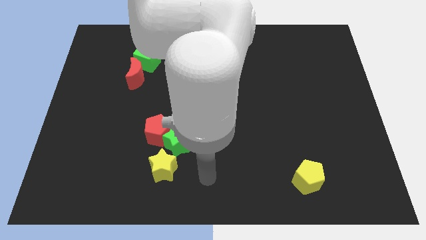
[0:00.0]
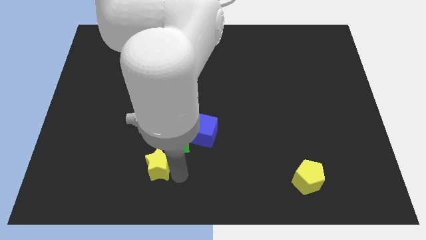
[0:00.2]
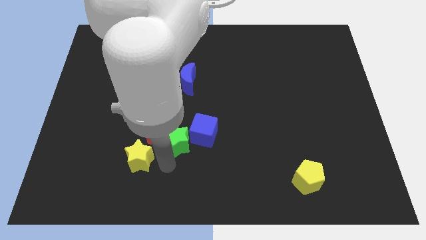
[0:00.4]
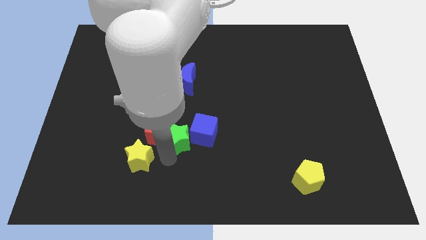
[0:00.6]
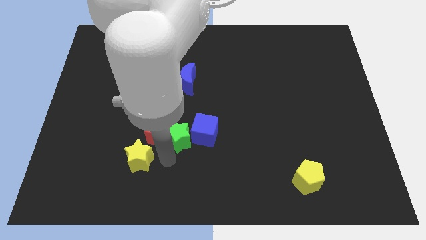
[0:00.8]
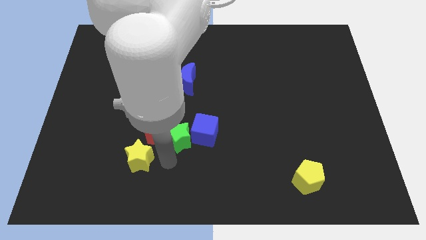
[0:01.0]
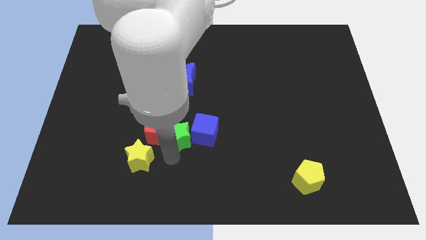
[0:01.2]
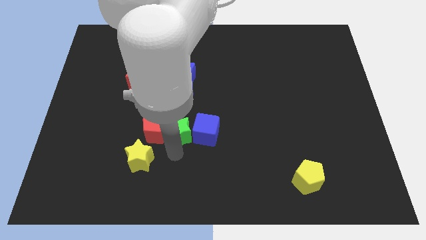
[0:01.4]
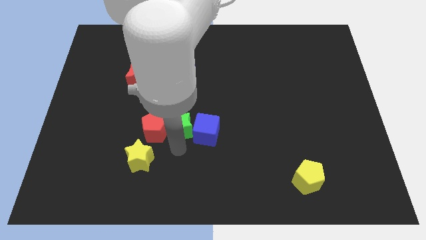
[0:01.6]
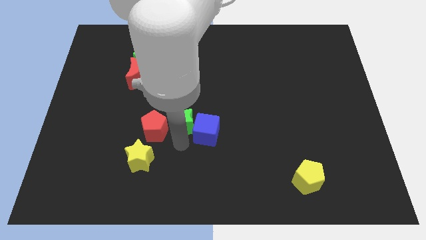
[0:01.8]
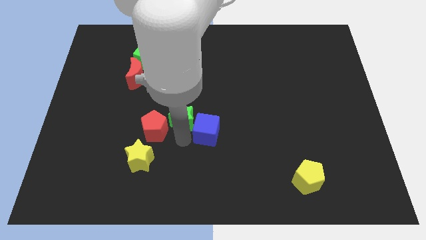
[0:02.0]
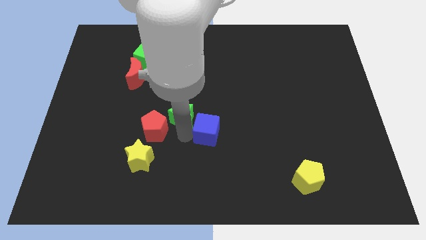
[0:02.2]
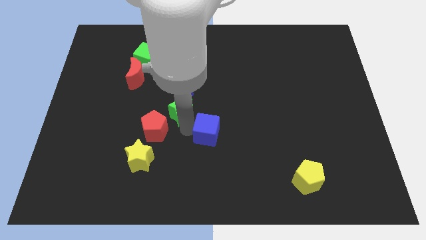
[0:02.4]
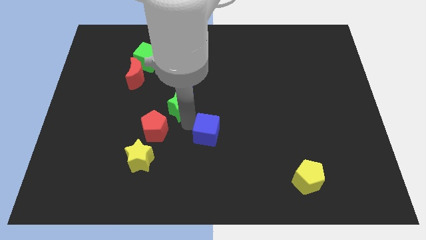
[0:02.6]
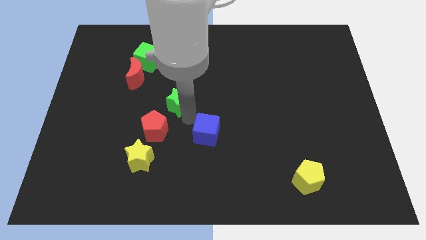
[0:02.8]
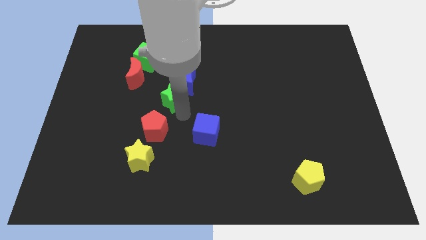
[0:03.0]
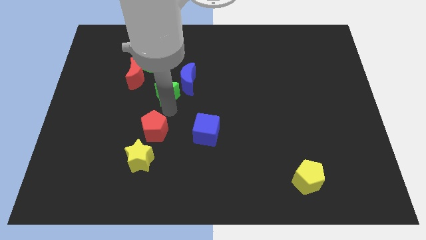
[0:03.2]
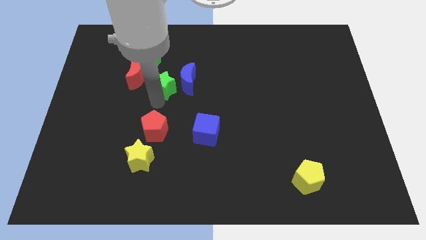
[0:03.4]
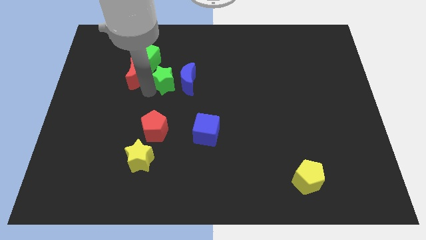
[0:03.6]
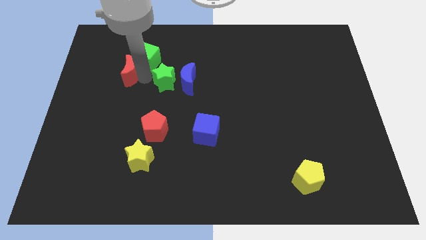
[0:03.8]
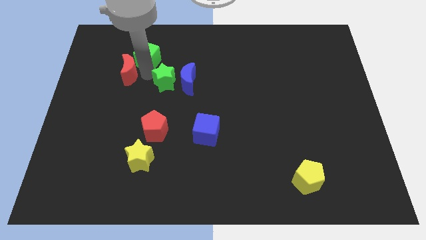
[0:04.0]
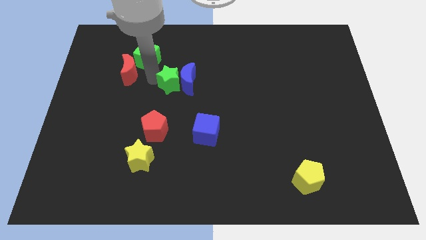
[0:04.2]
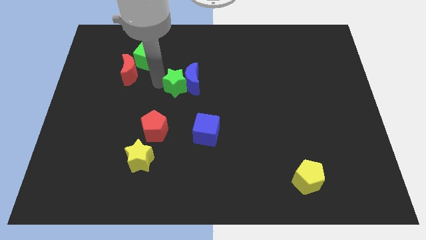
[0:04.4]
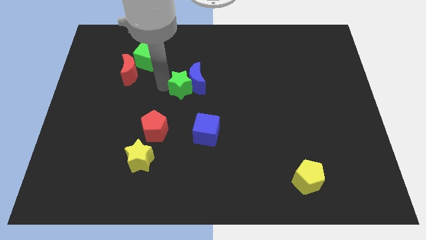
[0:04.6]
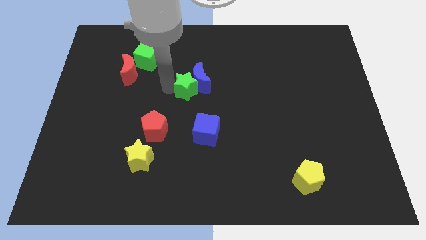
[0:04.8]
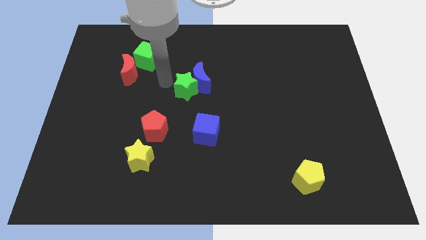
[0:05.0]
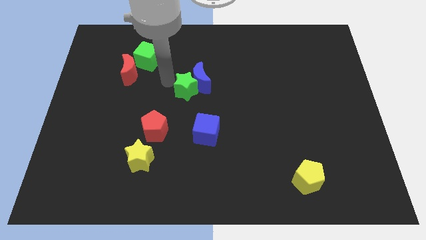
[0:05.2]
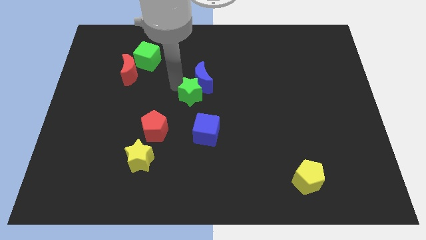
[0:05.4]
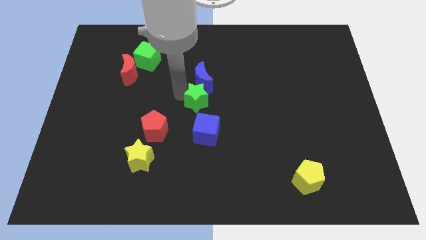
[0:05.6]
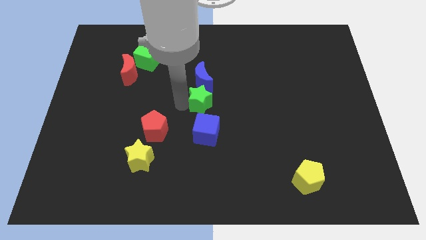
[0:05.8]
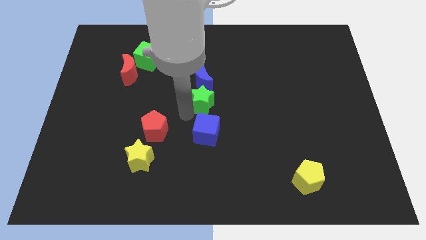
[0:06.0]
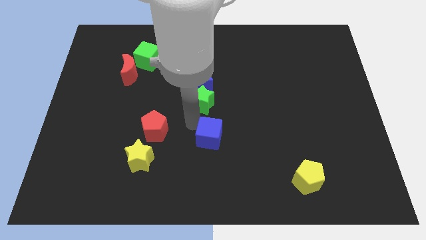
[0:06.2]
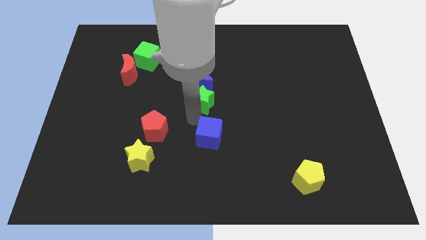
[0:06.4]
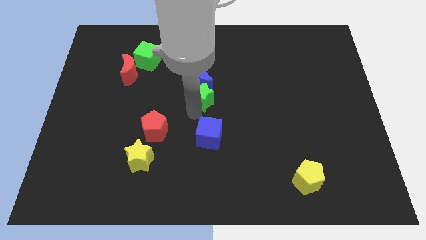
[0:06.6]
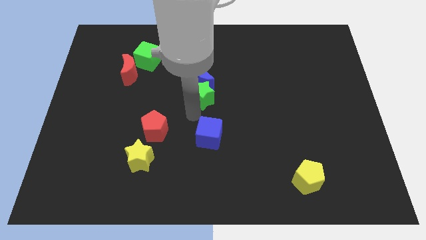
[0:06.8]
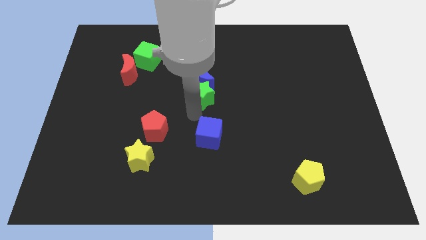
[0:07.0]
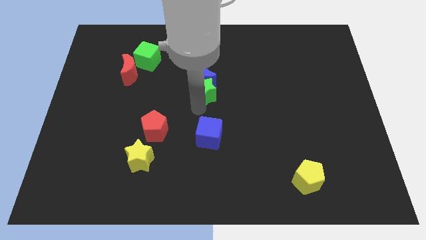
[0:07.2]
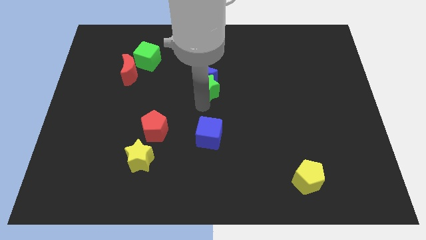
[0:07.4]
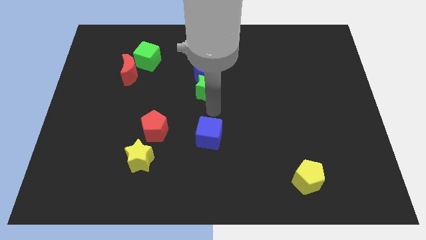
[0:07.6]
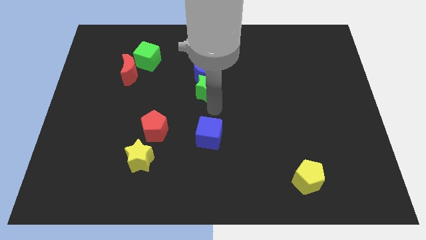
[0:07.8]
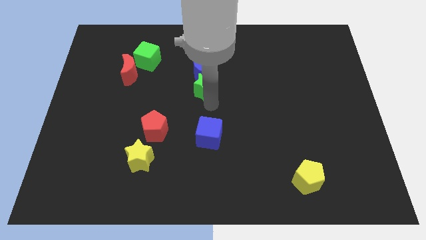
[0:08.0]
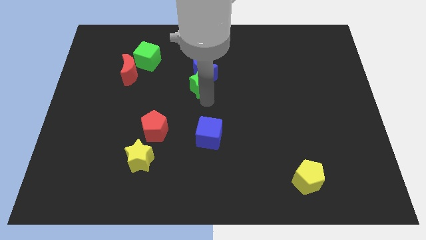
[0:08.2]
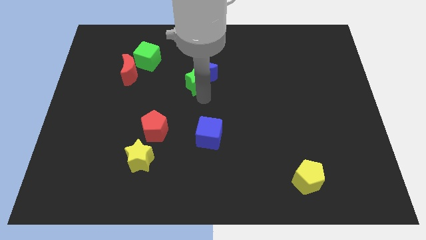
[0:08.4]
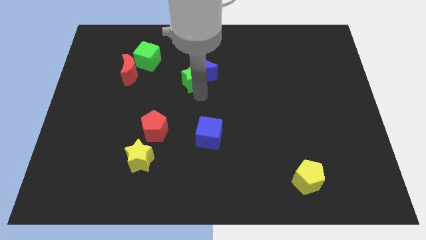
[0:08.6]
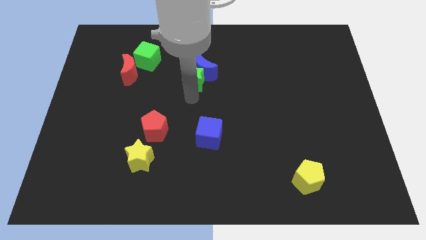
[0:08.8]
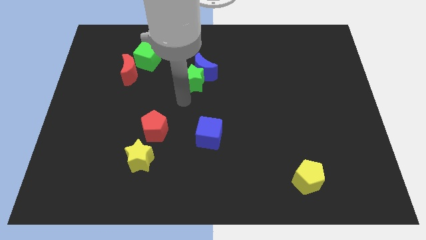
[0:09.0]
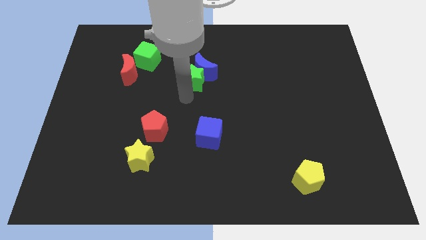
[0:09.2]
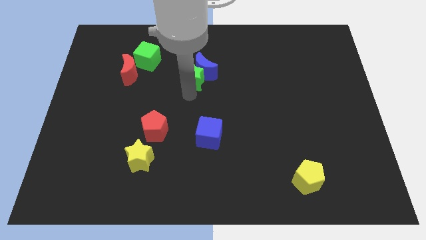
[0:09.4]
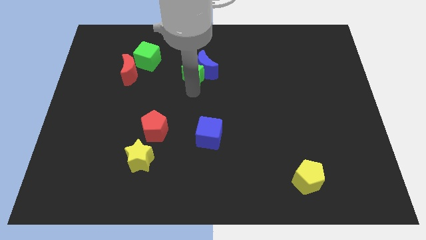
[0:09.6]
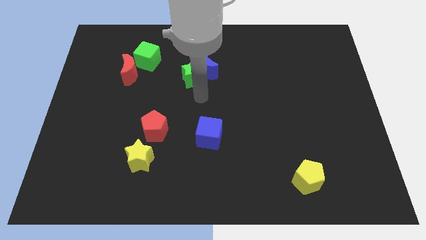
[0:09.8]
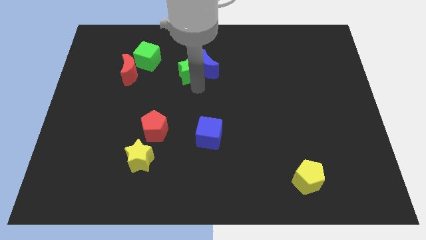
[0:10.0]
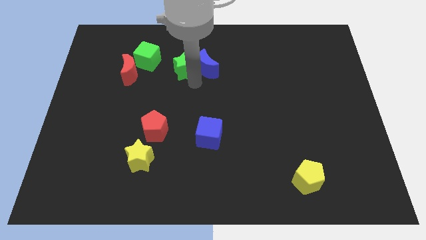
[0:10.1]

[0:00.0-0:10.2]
slide the green star to the right side of the green cube

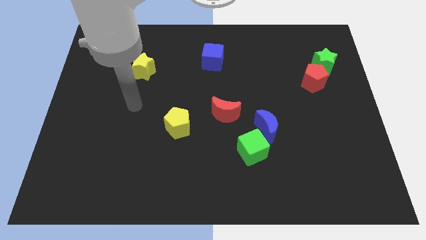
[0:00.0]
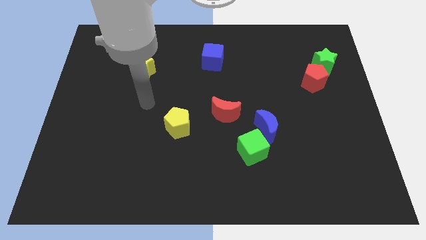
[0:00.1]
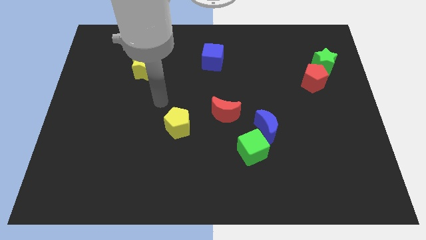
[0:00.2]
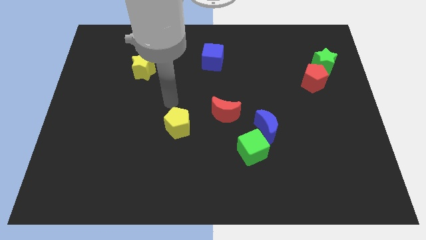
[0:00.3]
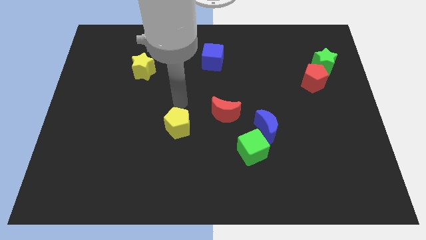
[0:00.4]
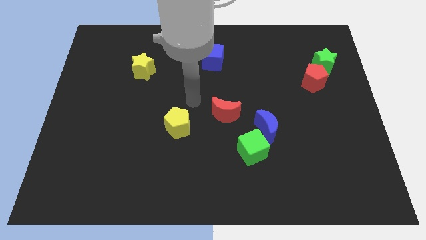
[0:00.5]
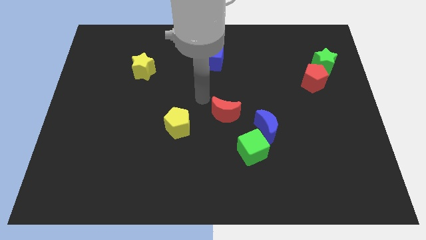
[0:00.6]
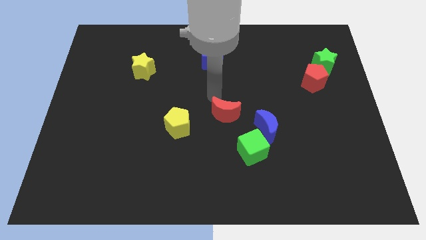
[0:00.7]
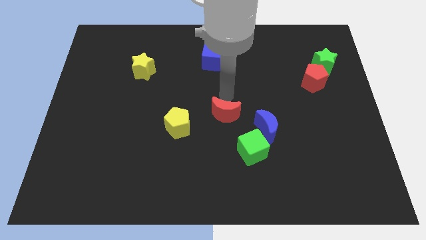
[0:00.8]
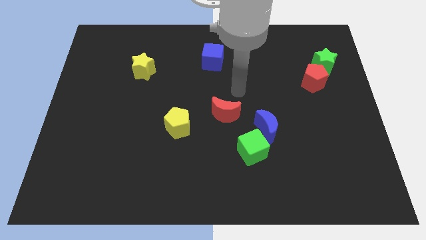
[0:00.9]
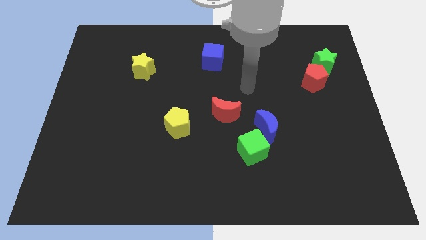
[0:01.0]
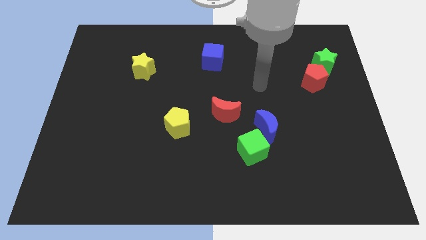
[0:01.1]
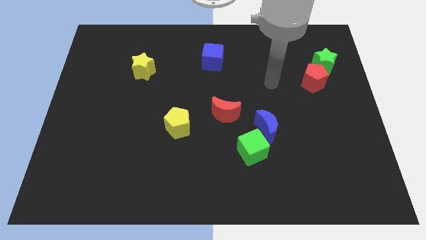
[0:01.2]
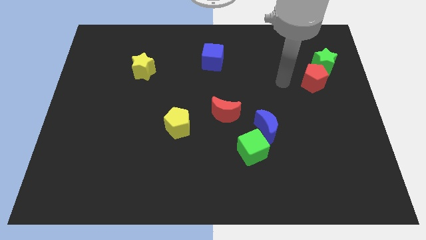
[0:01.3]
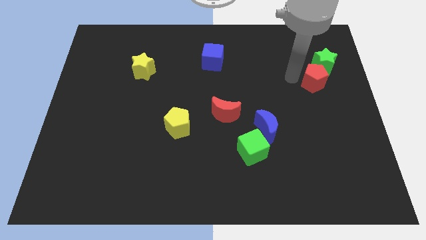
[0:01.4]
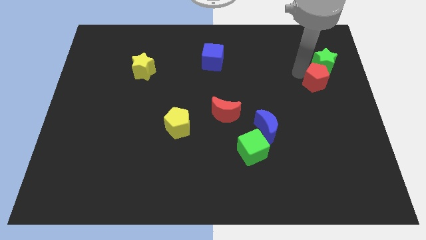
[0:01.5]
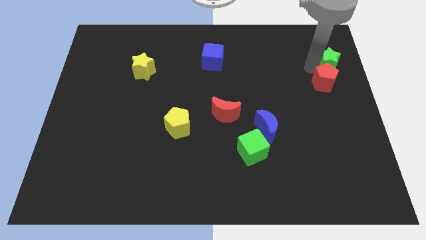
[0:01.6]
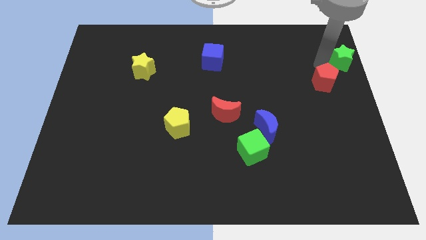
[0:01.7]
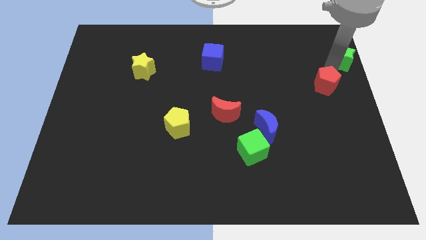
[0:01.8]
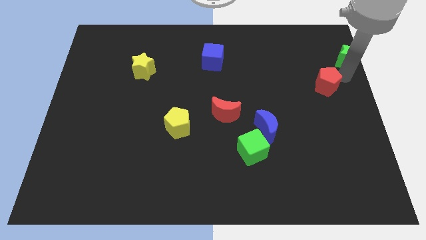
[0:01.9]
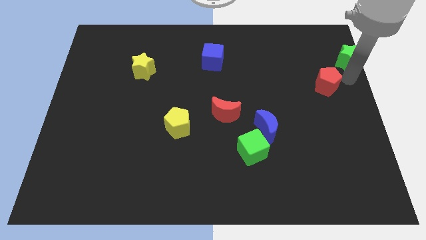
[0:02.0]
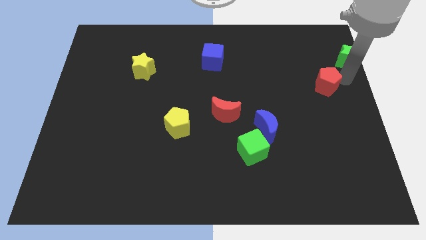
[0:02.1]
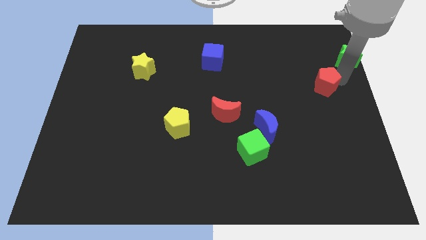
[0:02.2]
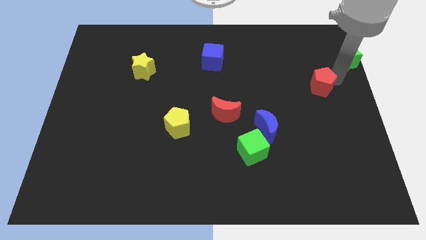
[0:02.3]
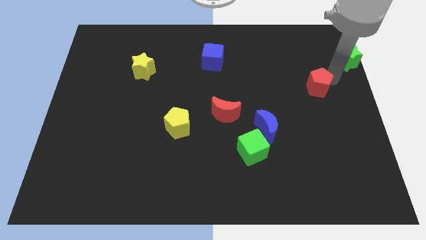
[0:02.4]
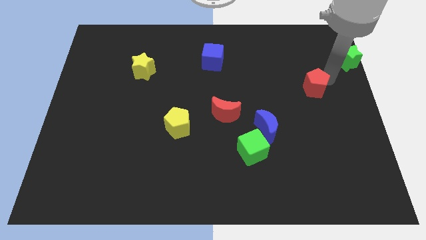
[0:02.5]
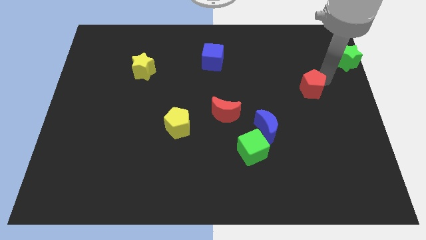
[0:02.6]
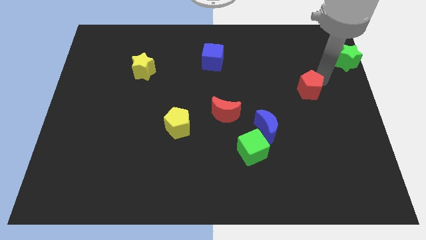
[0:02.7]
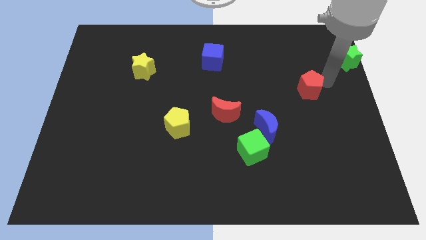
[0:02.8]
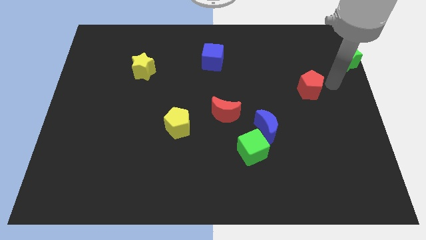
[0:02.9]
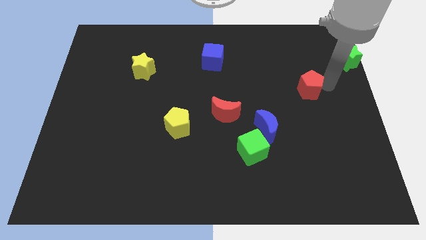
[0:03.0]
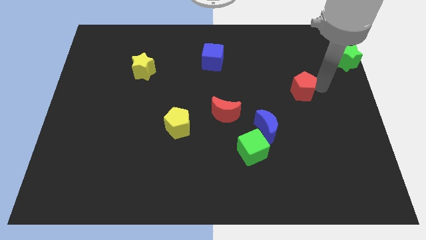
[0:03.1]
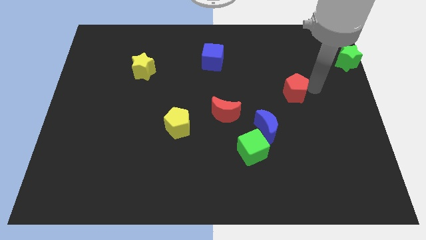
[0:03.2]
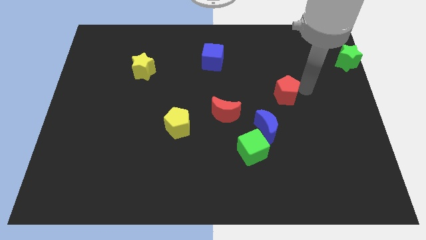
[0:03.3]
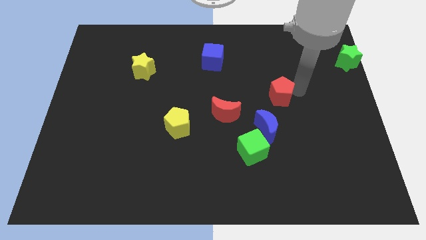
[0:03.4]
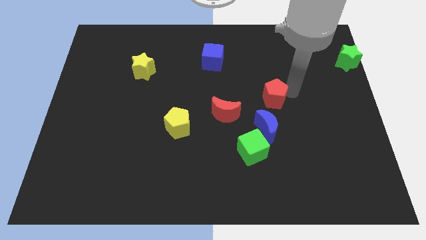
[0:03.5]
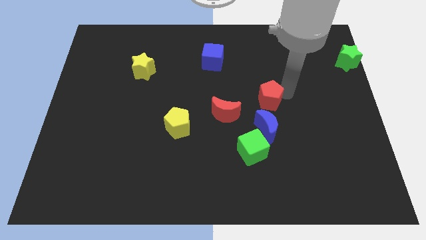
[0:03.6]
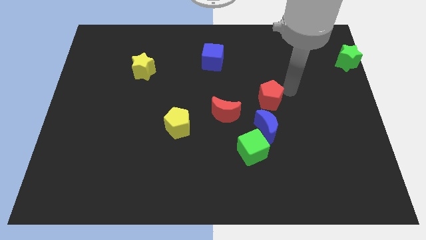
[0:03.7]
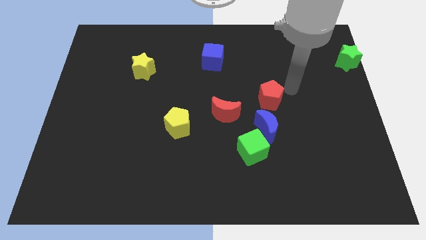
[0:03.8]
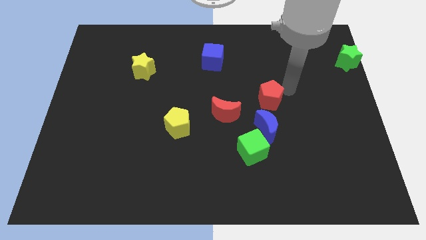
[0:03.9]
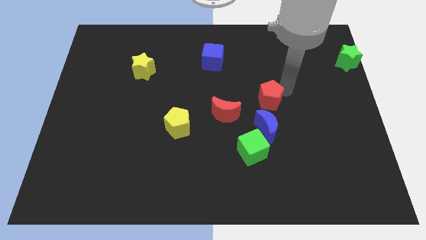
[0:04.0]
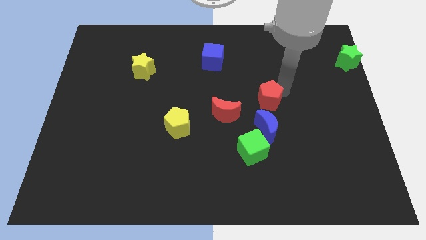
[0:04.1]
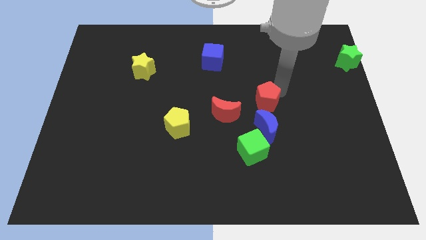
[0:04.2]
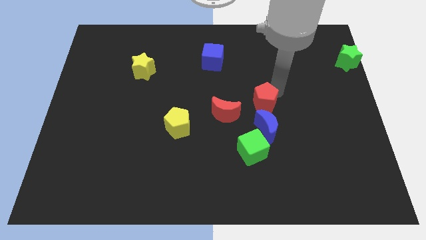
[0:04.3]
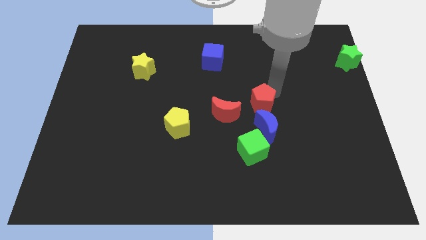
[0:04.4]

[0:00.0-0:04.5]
slide the red pentagon to the top left of the blue moon
